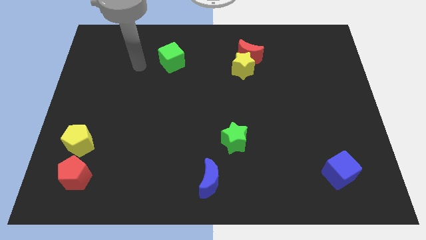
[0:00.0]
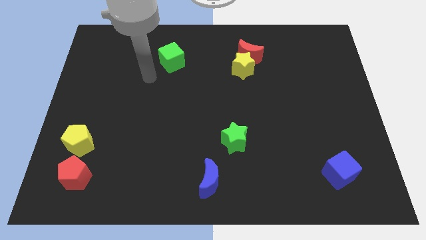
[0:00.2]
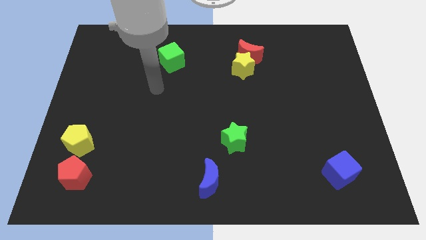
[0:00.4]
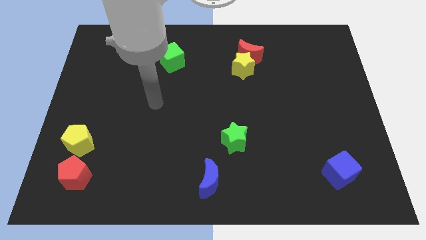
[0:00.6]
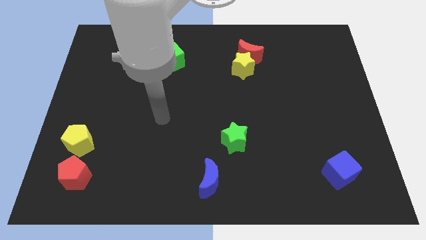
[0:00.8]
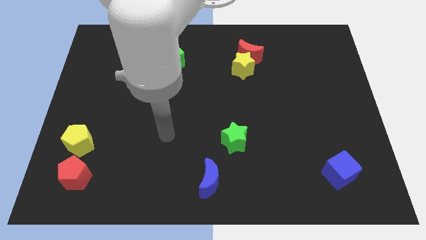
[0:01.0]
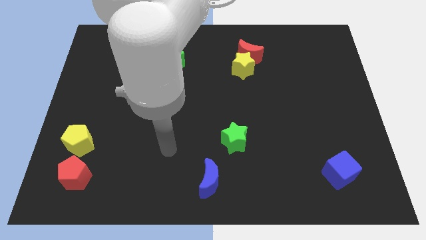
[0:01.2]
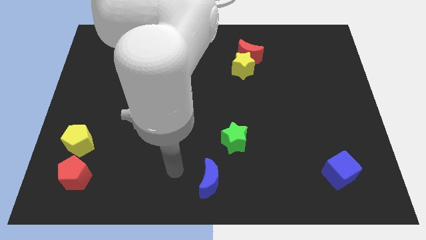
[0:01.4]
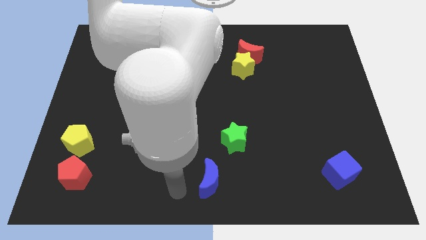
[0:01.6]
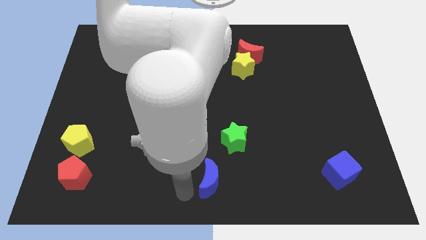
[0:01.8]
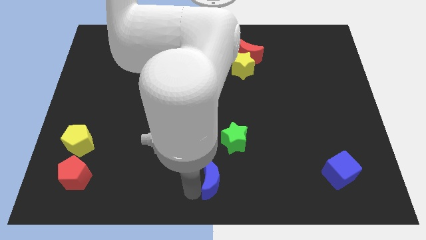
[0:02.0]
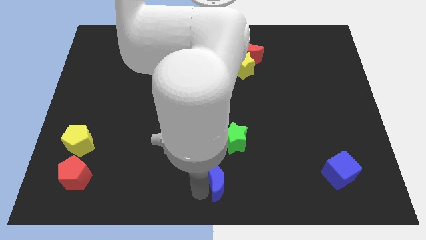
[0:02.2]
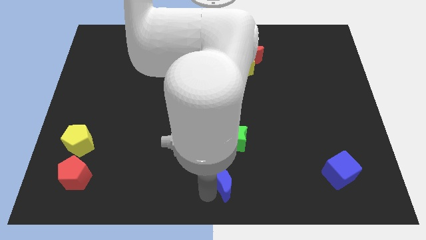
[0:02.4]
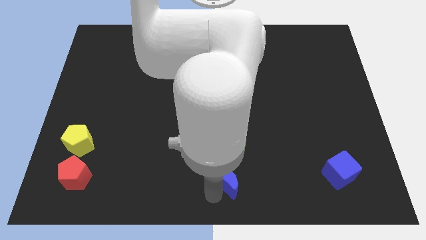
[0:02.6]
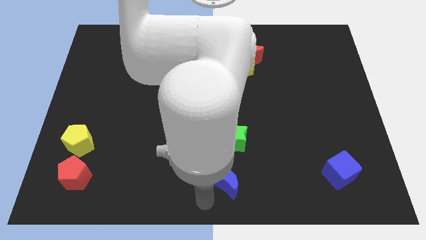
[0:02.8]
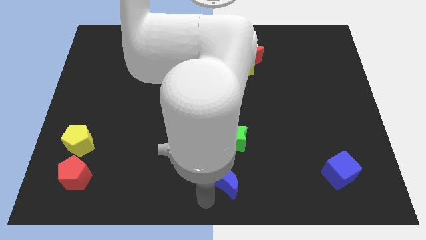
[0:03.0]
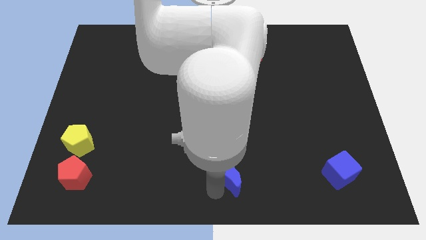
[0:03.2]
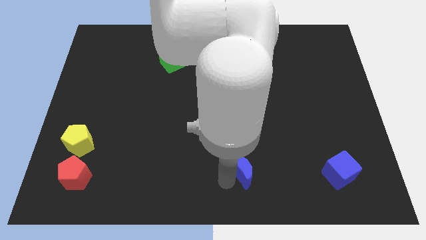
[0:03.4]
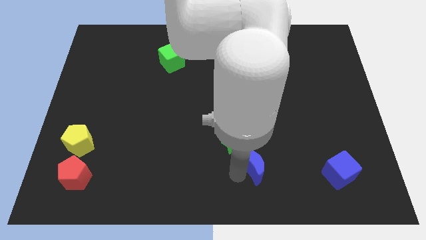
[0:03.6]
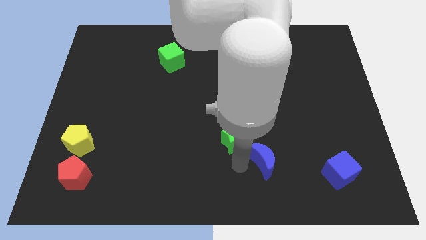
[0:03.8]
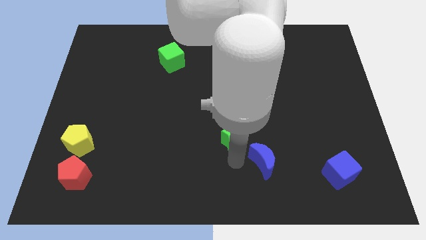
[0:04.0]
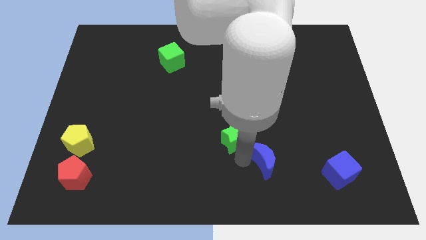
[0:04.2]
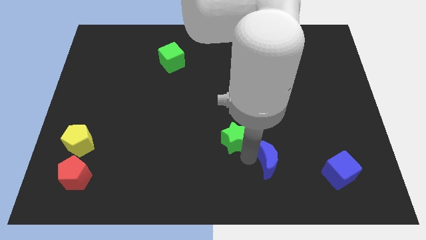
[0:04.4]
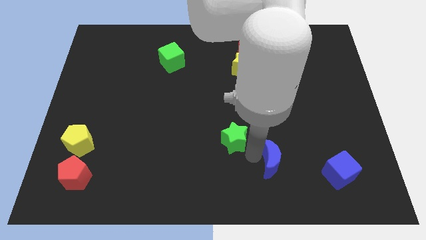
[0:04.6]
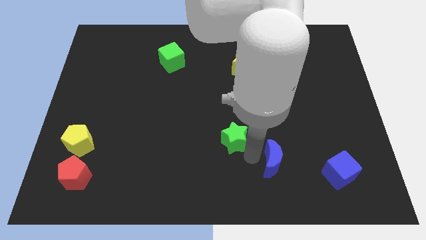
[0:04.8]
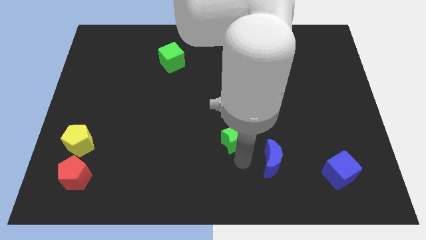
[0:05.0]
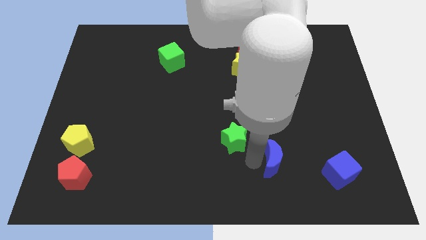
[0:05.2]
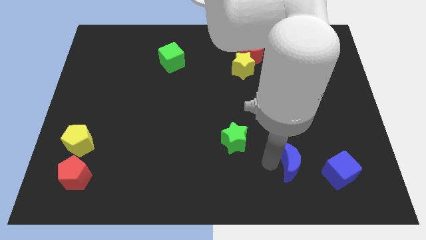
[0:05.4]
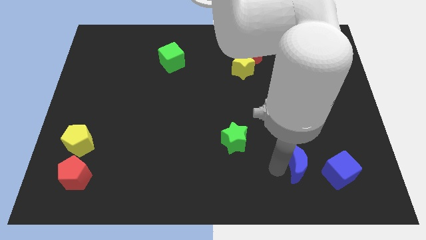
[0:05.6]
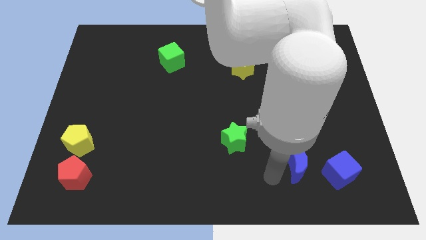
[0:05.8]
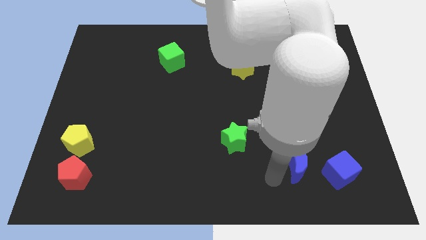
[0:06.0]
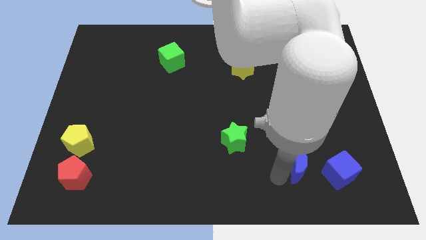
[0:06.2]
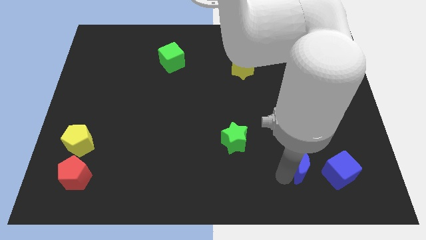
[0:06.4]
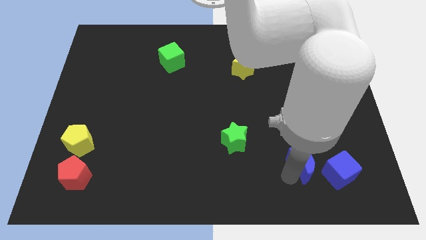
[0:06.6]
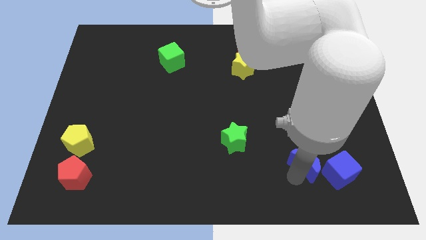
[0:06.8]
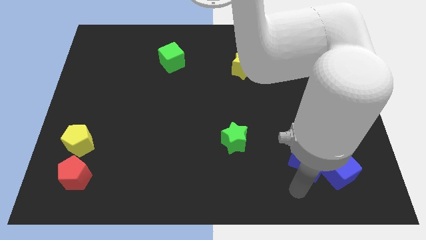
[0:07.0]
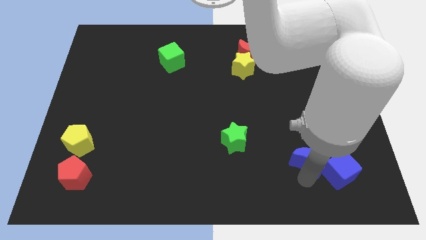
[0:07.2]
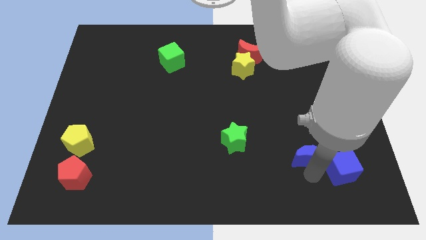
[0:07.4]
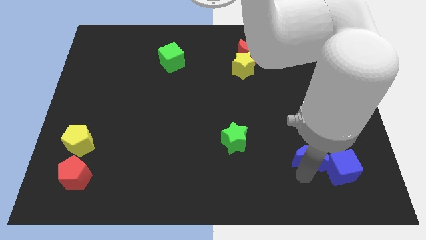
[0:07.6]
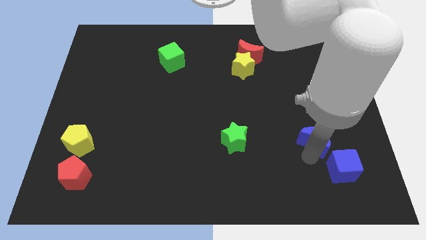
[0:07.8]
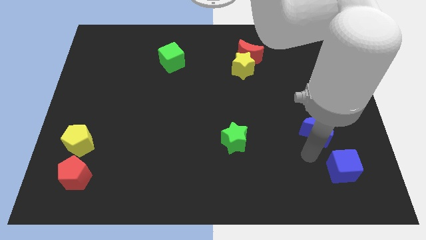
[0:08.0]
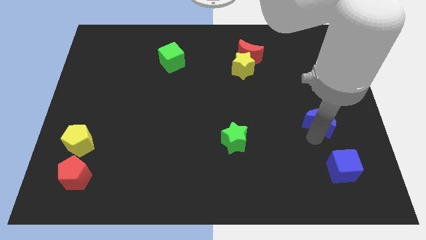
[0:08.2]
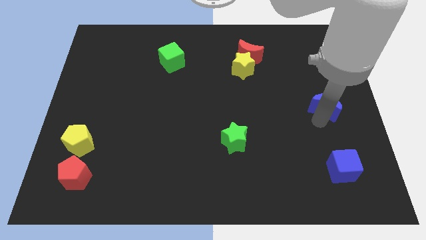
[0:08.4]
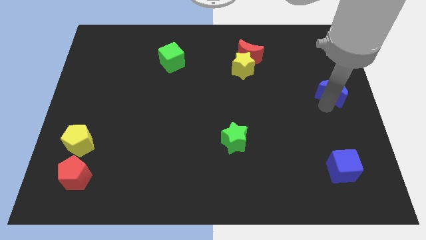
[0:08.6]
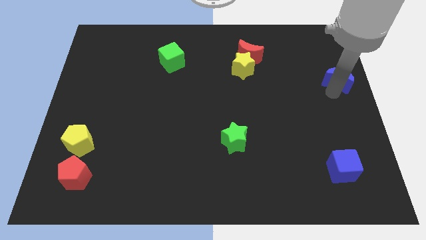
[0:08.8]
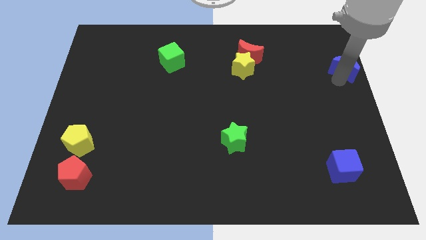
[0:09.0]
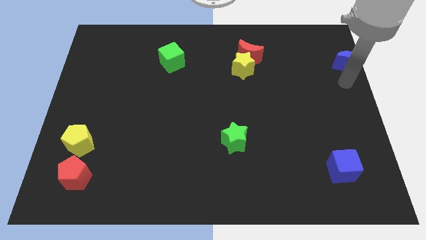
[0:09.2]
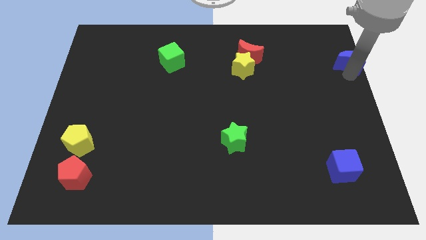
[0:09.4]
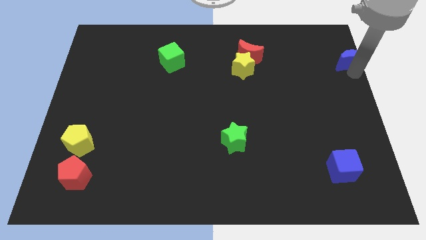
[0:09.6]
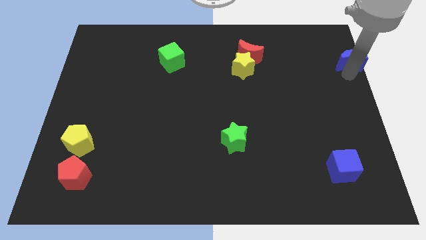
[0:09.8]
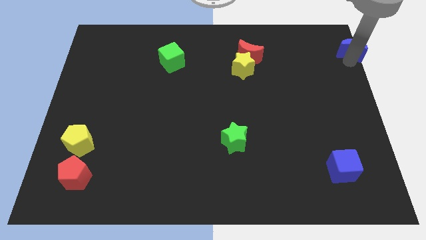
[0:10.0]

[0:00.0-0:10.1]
put the blue moon to the top right corner

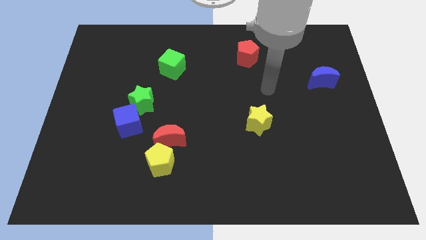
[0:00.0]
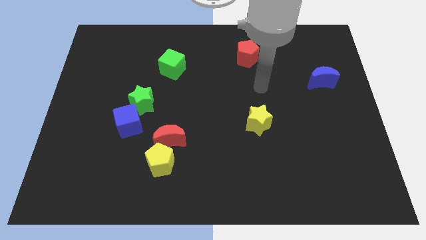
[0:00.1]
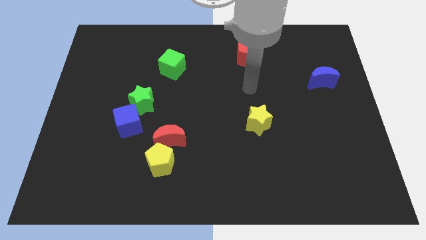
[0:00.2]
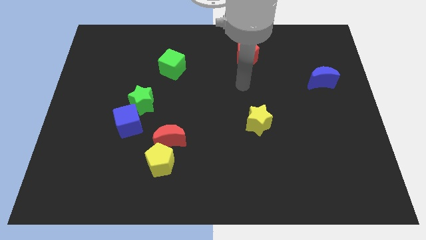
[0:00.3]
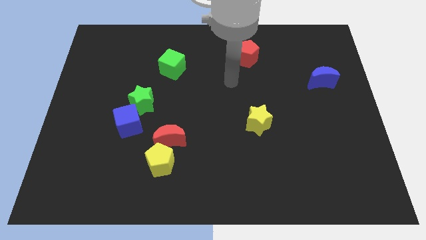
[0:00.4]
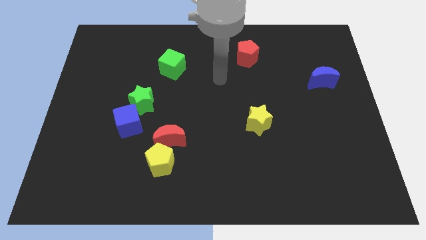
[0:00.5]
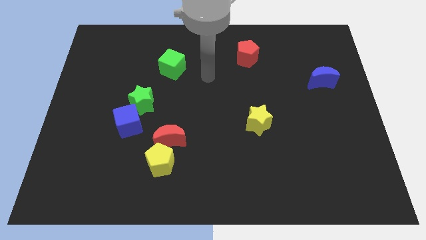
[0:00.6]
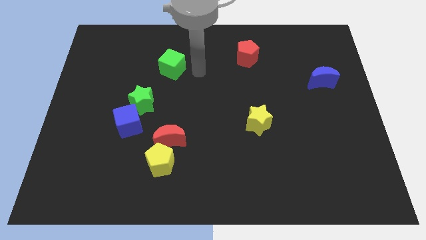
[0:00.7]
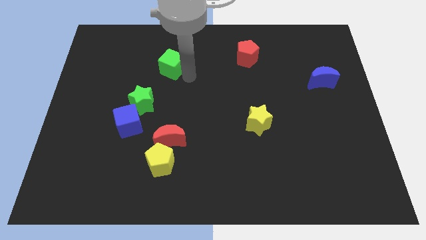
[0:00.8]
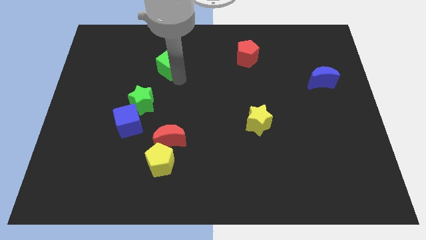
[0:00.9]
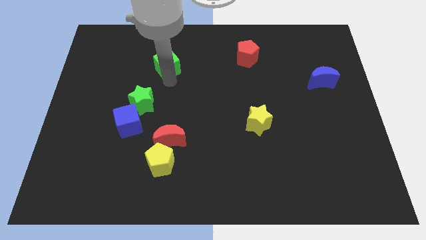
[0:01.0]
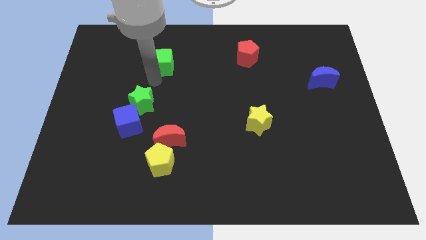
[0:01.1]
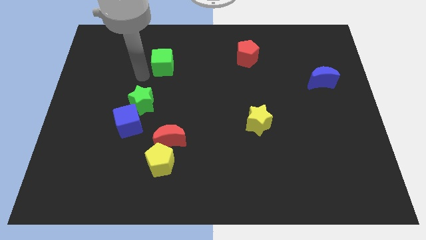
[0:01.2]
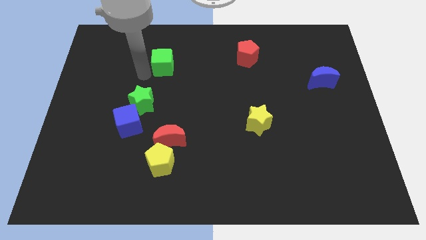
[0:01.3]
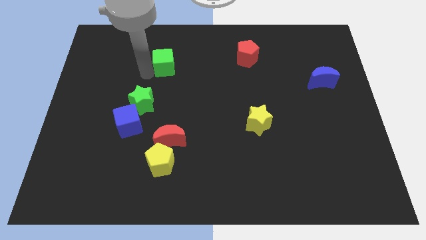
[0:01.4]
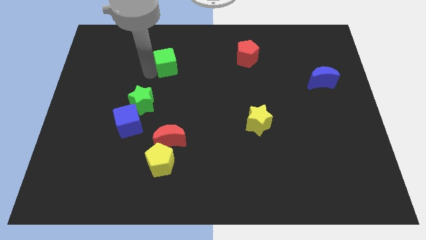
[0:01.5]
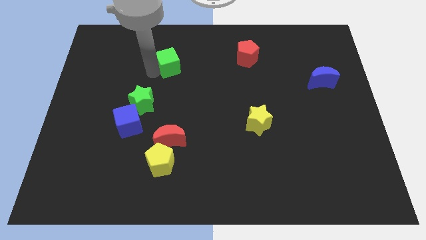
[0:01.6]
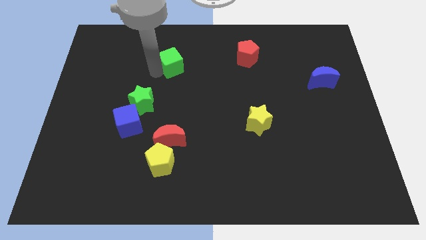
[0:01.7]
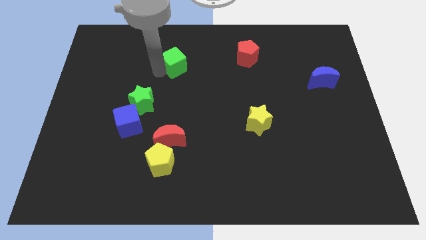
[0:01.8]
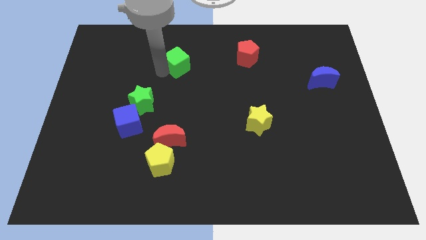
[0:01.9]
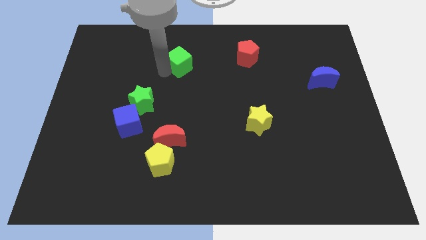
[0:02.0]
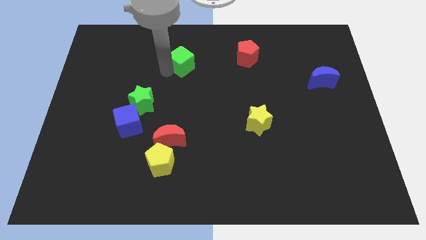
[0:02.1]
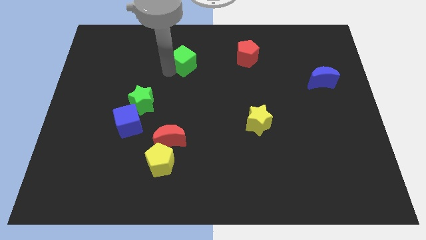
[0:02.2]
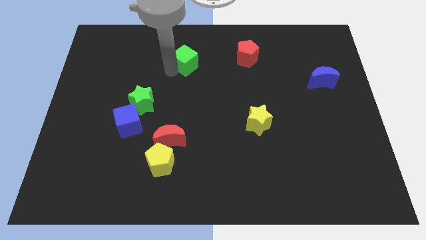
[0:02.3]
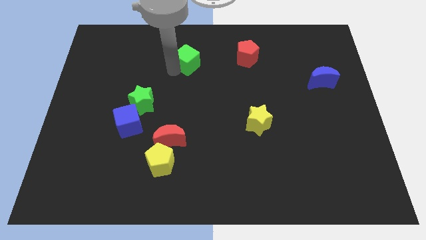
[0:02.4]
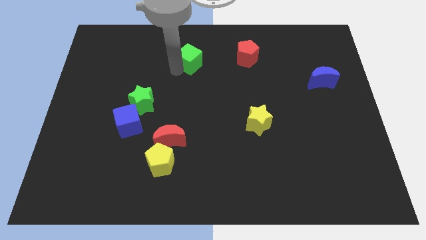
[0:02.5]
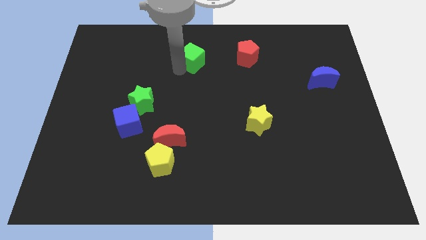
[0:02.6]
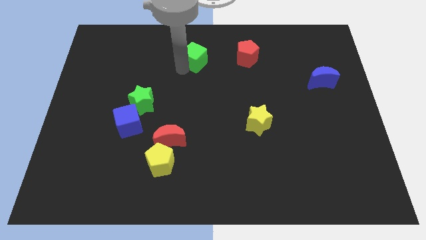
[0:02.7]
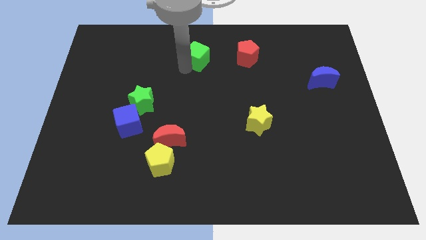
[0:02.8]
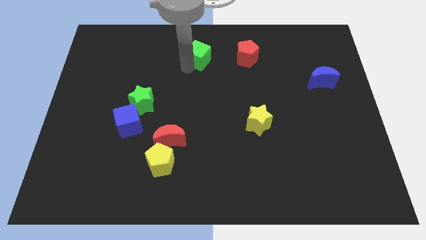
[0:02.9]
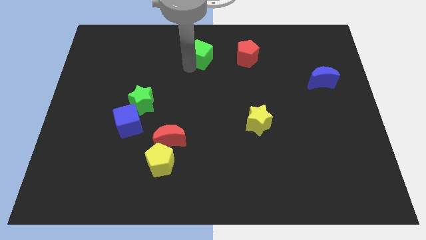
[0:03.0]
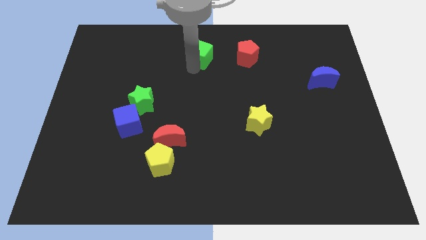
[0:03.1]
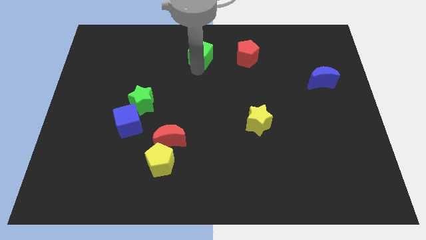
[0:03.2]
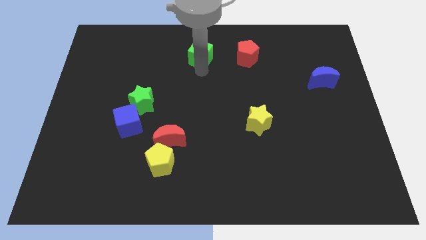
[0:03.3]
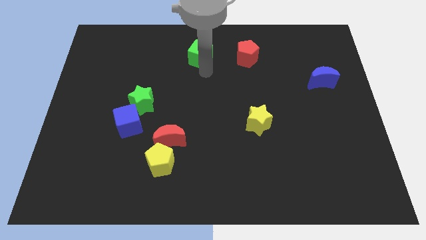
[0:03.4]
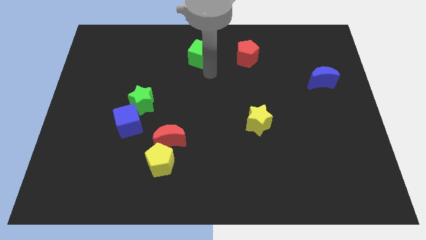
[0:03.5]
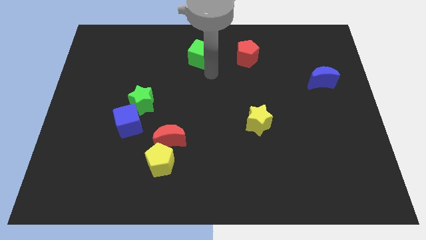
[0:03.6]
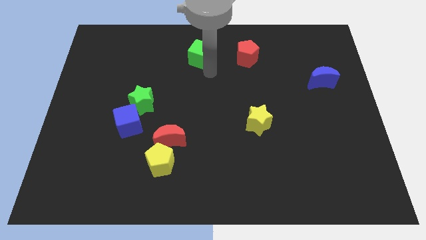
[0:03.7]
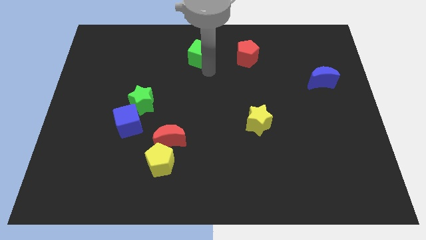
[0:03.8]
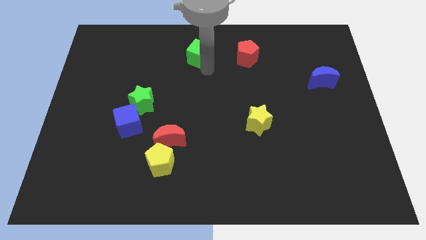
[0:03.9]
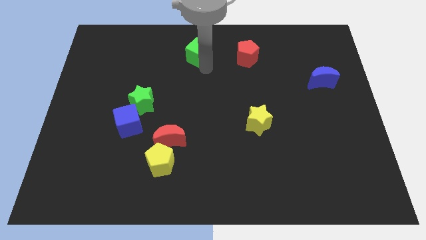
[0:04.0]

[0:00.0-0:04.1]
push the green cube to the towards your base
